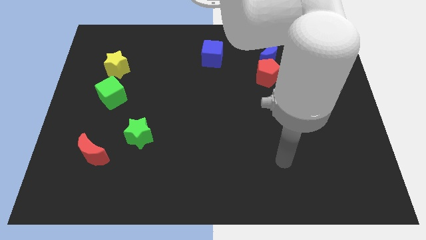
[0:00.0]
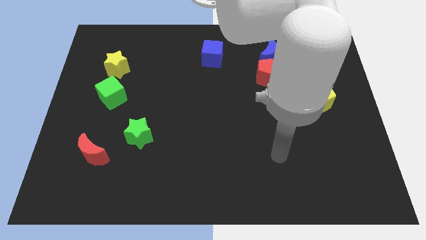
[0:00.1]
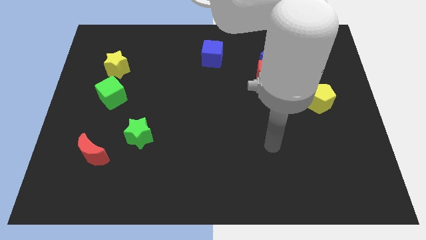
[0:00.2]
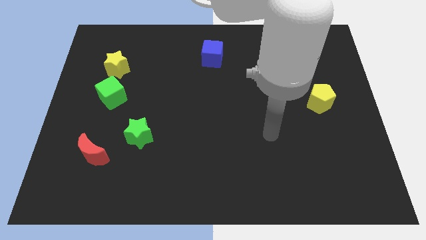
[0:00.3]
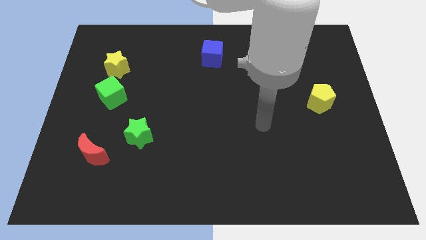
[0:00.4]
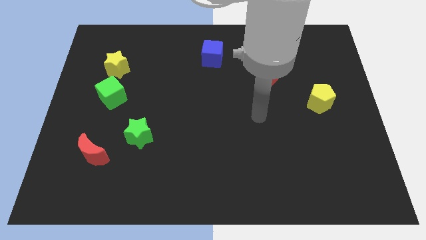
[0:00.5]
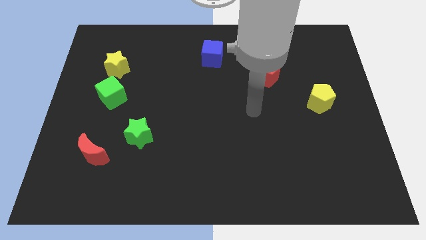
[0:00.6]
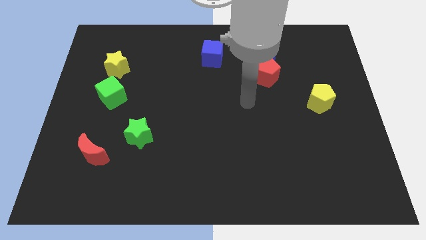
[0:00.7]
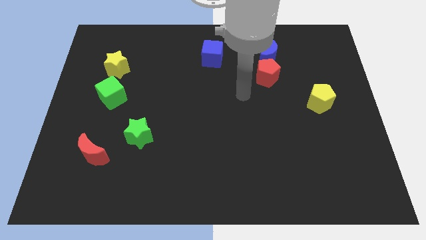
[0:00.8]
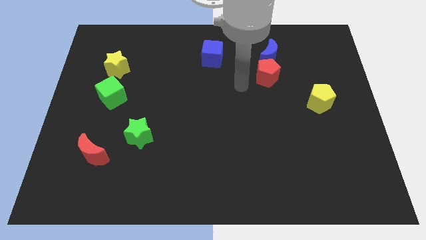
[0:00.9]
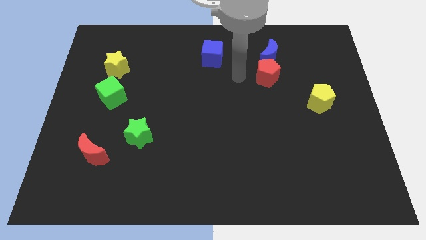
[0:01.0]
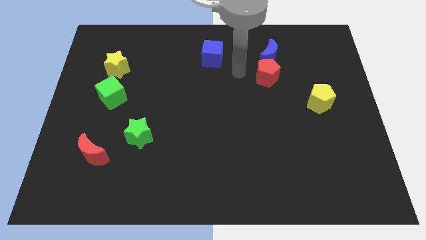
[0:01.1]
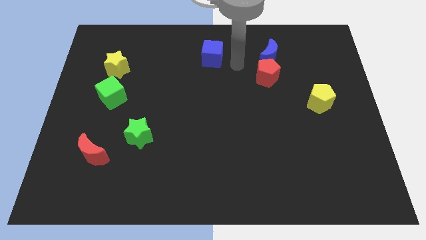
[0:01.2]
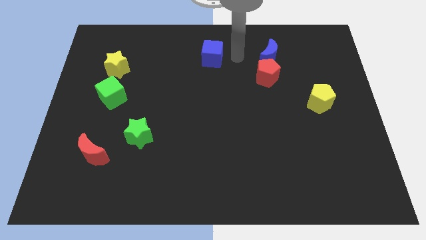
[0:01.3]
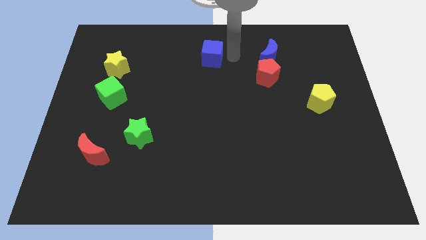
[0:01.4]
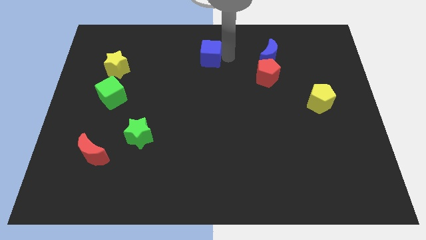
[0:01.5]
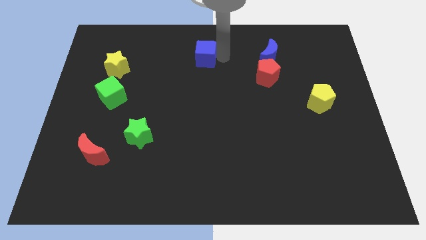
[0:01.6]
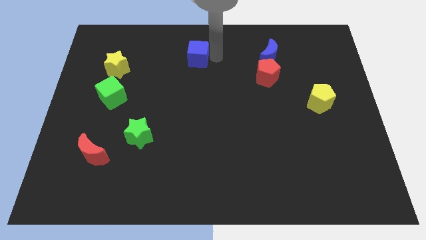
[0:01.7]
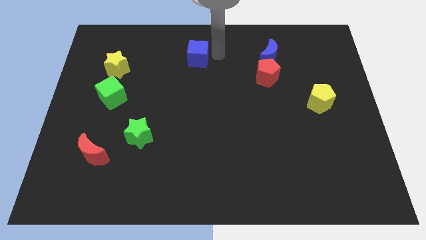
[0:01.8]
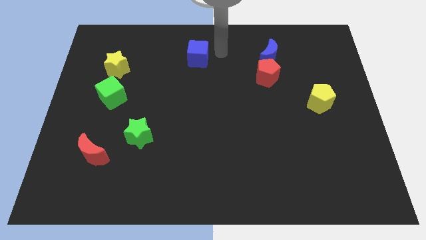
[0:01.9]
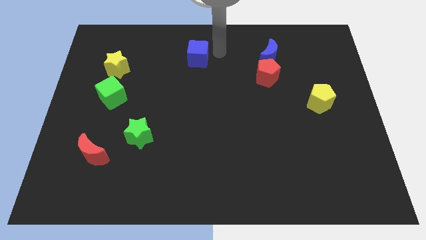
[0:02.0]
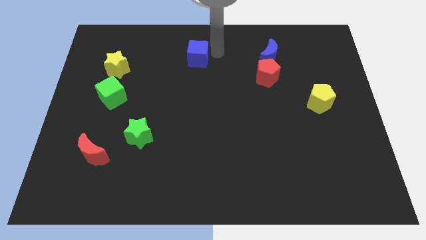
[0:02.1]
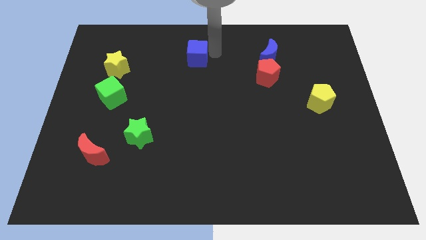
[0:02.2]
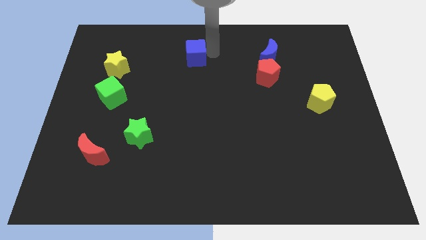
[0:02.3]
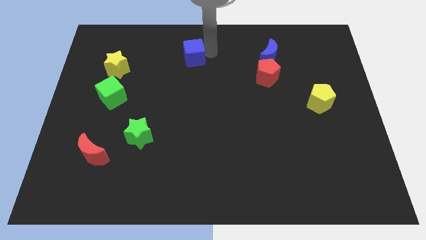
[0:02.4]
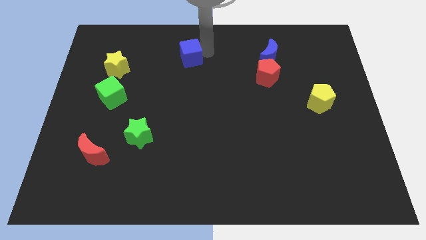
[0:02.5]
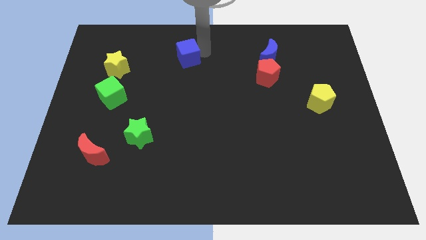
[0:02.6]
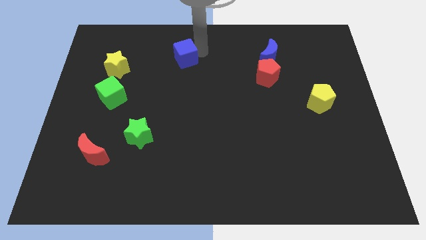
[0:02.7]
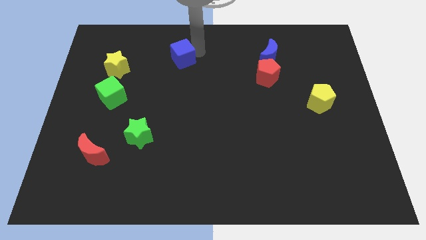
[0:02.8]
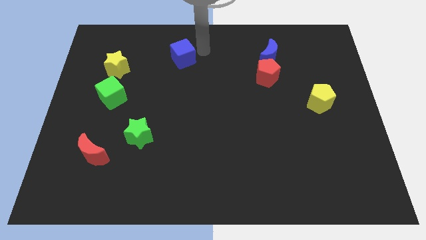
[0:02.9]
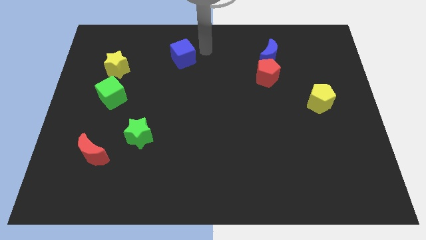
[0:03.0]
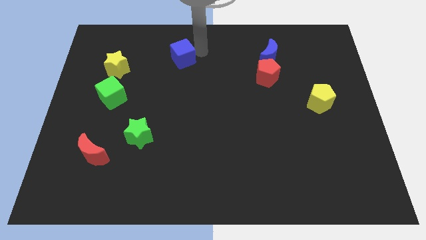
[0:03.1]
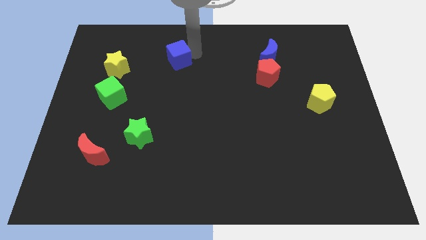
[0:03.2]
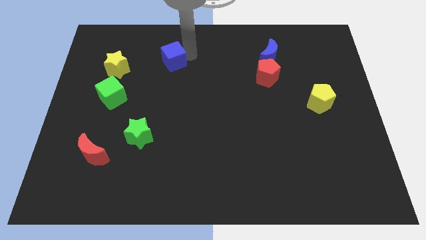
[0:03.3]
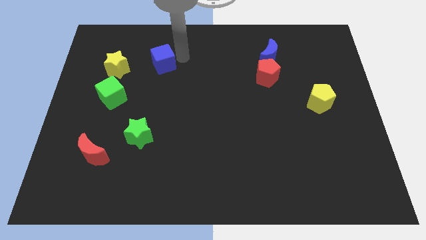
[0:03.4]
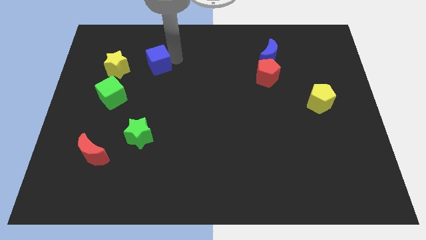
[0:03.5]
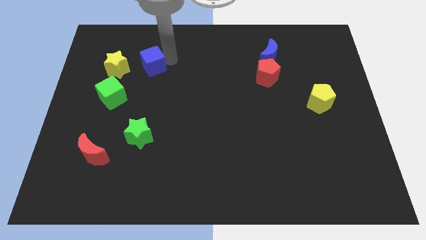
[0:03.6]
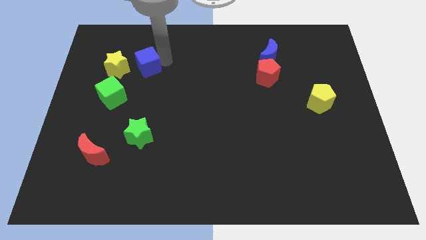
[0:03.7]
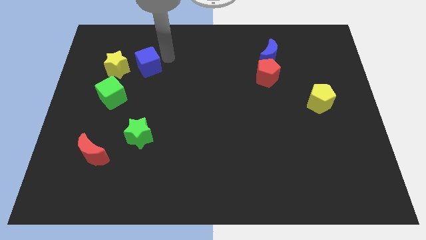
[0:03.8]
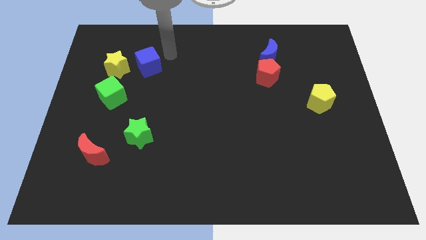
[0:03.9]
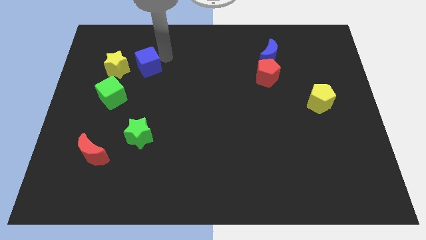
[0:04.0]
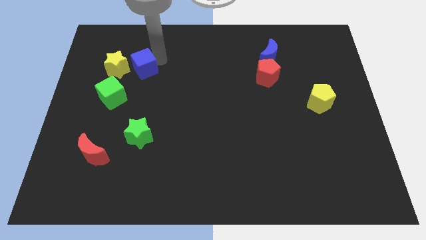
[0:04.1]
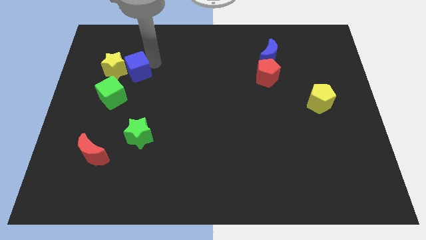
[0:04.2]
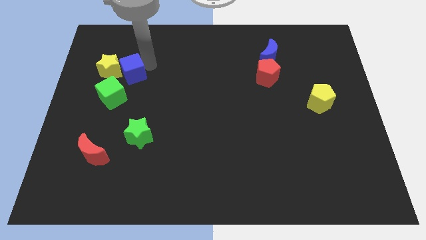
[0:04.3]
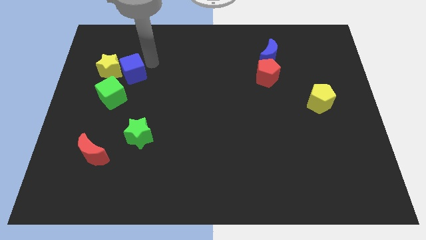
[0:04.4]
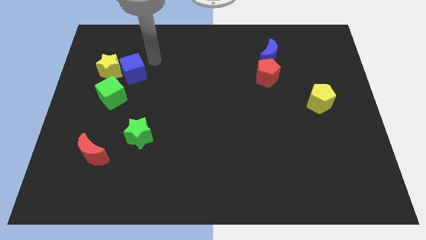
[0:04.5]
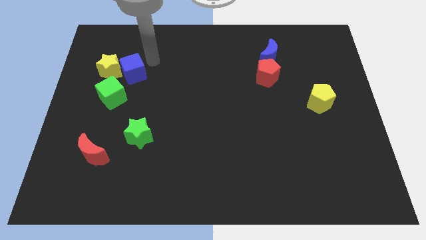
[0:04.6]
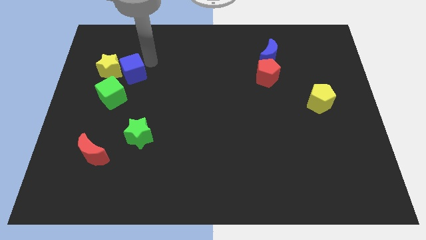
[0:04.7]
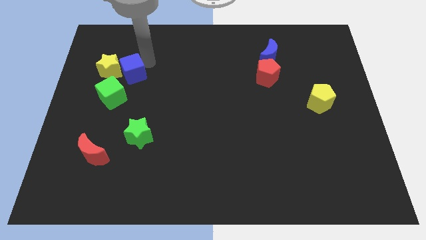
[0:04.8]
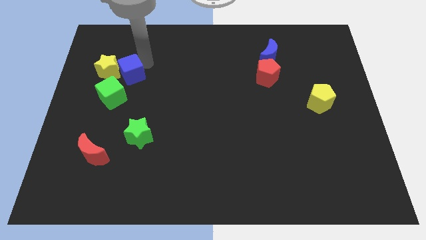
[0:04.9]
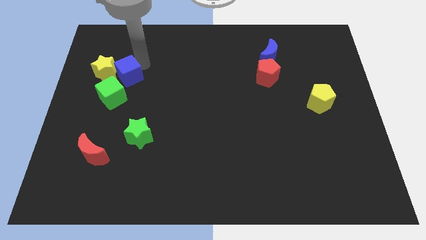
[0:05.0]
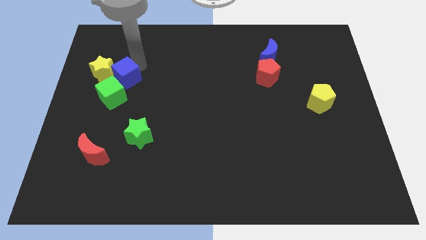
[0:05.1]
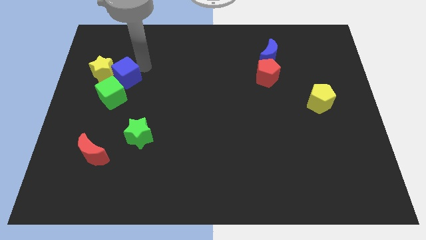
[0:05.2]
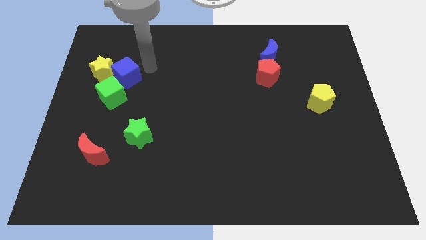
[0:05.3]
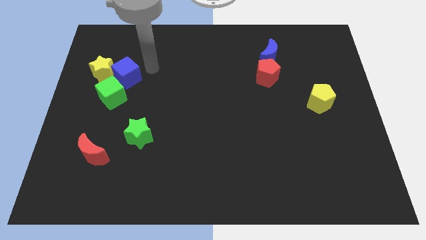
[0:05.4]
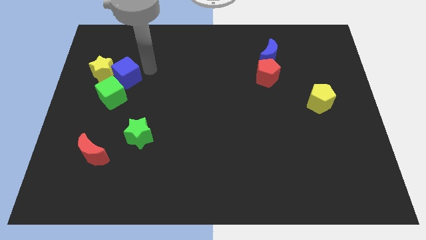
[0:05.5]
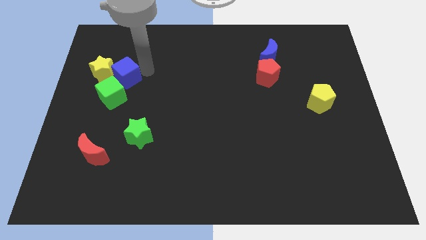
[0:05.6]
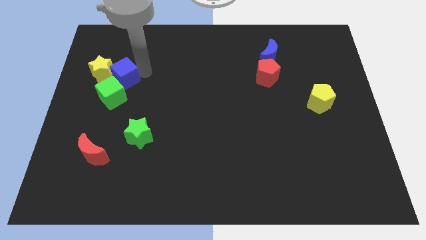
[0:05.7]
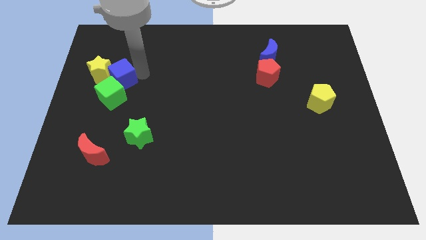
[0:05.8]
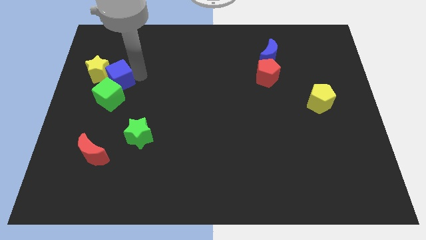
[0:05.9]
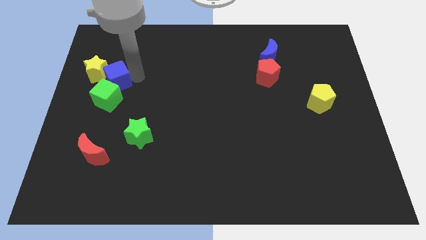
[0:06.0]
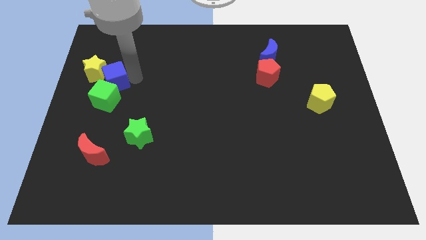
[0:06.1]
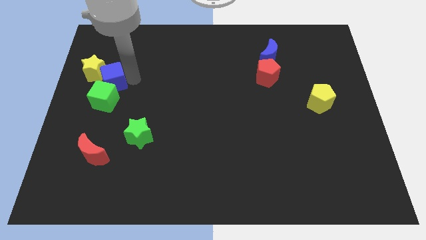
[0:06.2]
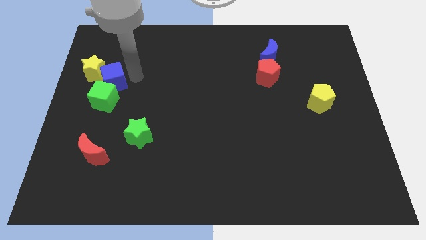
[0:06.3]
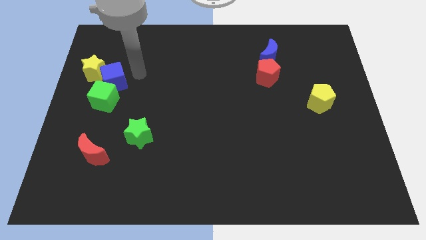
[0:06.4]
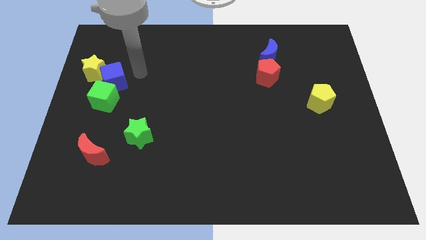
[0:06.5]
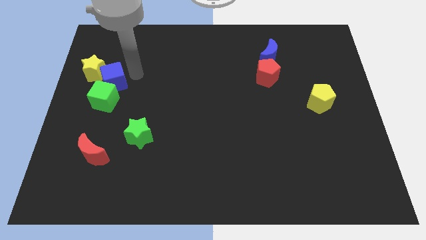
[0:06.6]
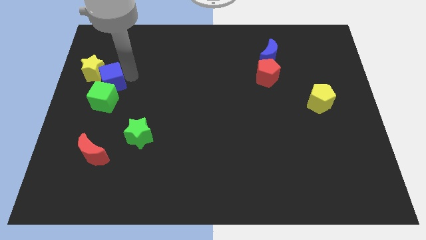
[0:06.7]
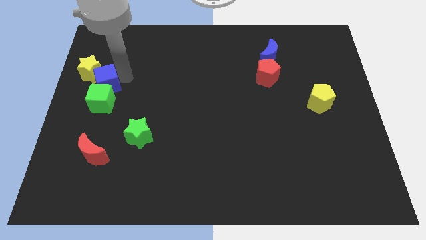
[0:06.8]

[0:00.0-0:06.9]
push the blue cube to the left side of the board
